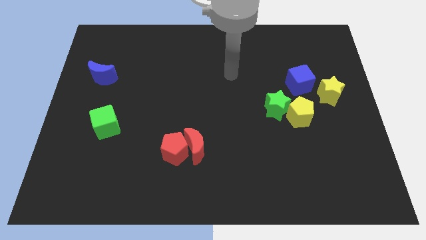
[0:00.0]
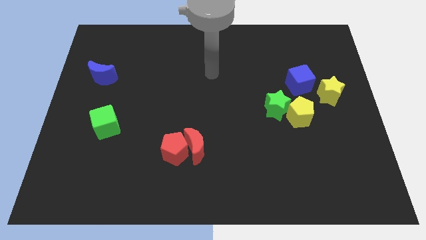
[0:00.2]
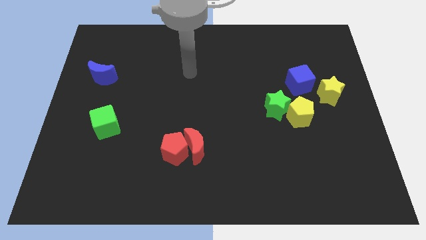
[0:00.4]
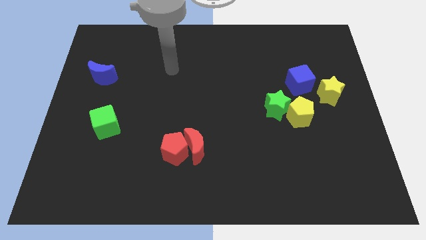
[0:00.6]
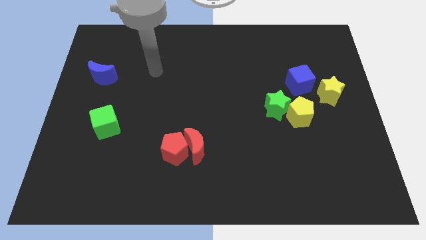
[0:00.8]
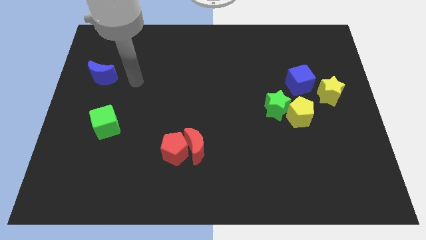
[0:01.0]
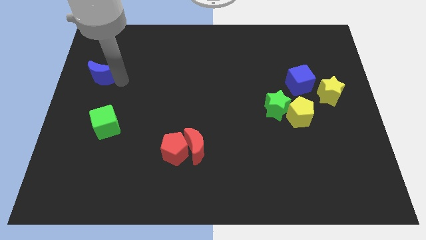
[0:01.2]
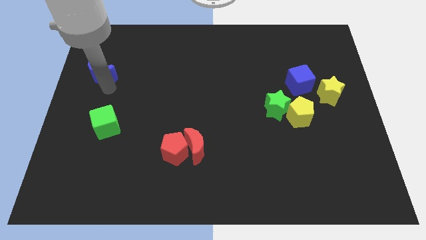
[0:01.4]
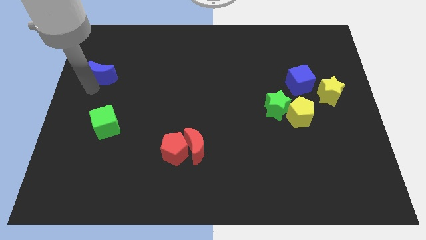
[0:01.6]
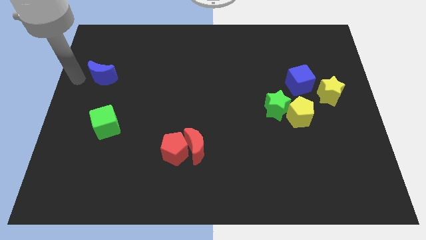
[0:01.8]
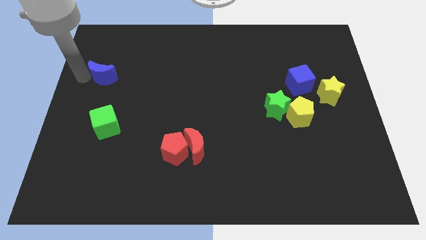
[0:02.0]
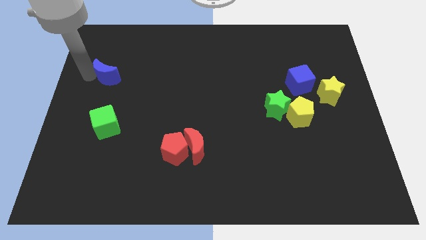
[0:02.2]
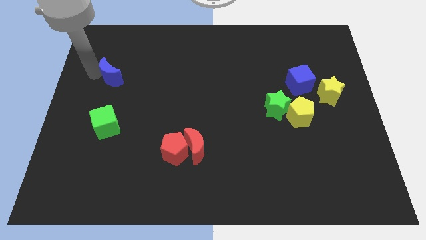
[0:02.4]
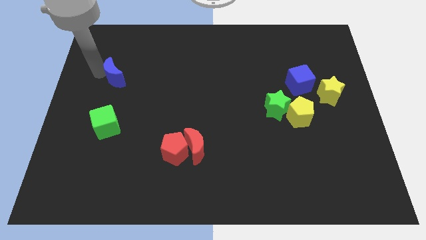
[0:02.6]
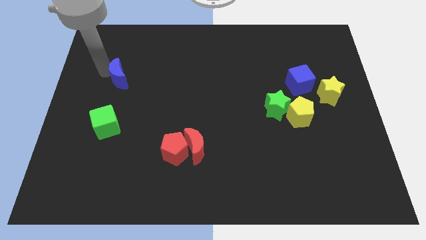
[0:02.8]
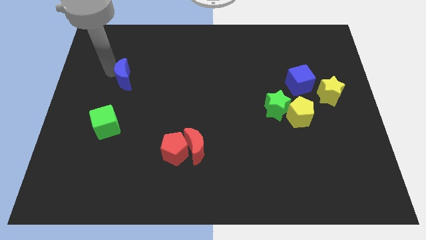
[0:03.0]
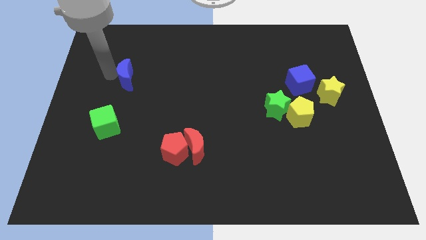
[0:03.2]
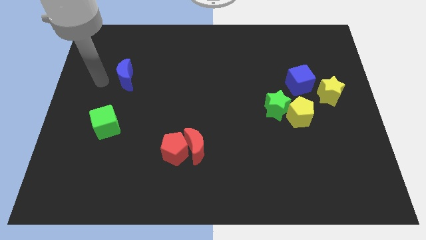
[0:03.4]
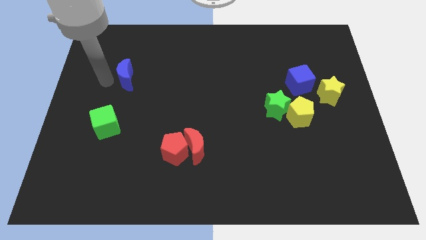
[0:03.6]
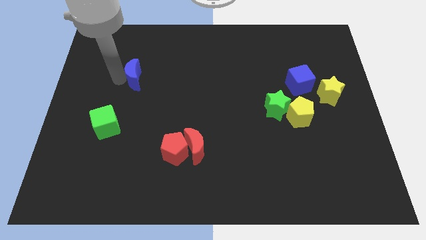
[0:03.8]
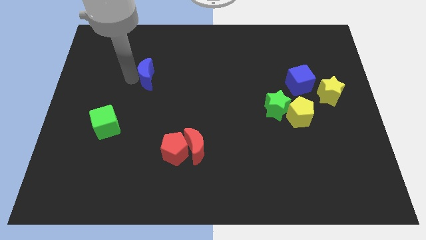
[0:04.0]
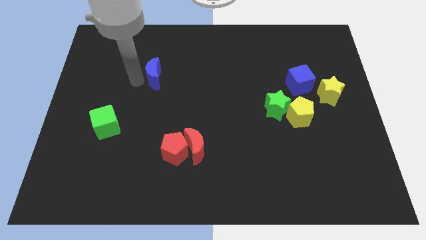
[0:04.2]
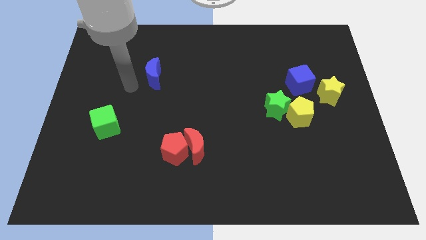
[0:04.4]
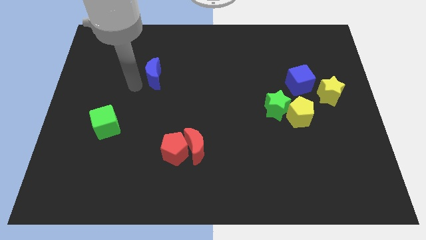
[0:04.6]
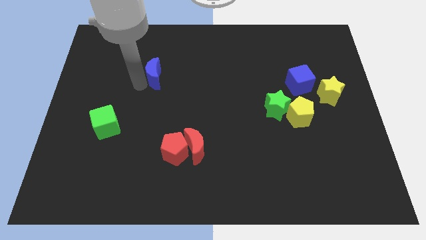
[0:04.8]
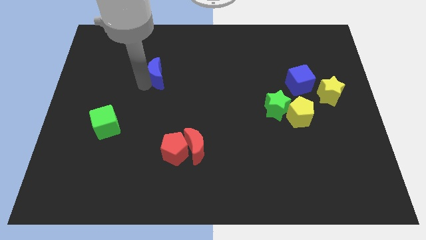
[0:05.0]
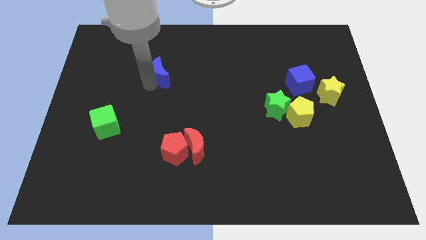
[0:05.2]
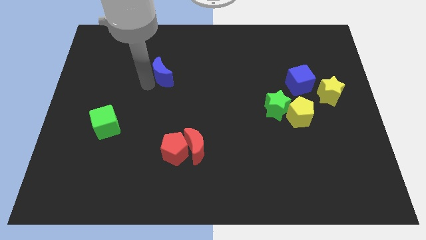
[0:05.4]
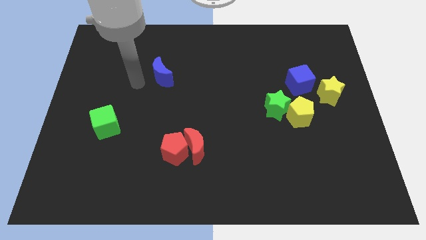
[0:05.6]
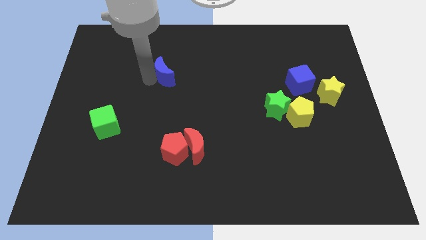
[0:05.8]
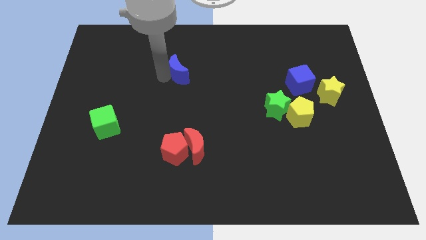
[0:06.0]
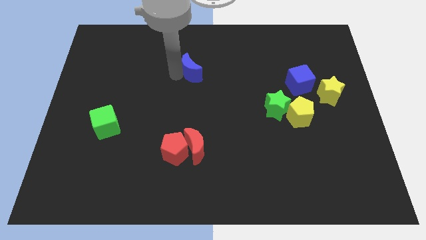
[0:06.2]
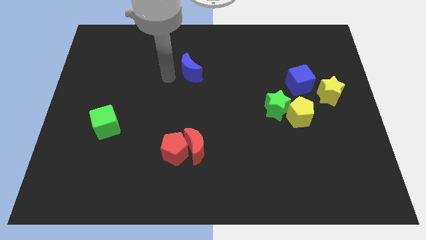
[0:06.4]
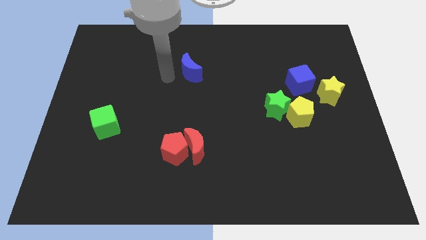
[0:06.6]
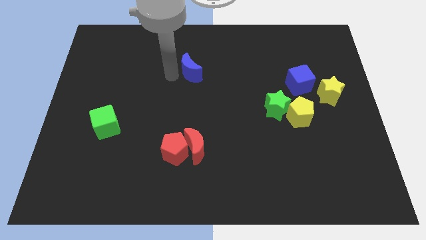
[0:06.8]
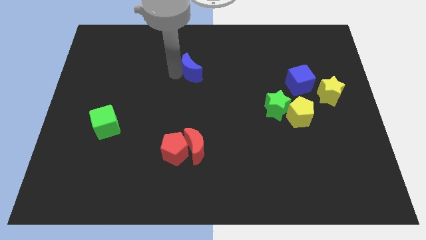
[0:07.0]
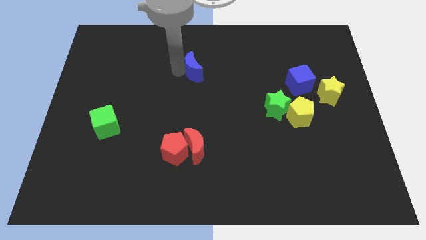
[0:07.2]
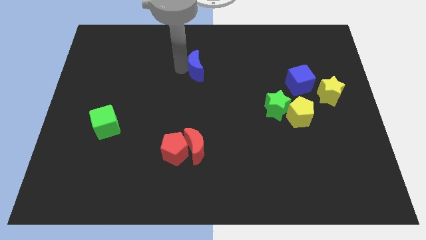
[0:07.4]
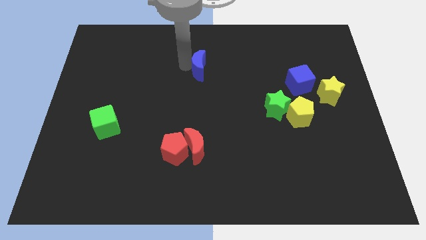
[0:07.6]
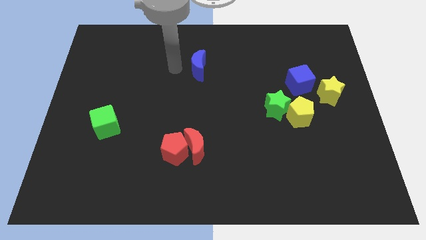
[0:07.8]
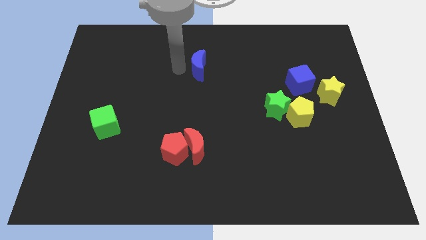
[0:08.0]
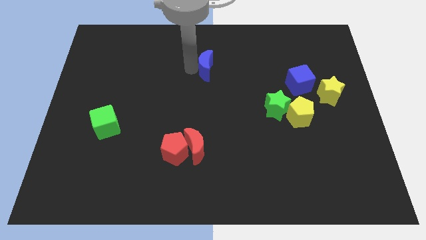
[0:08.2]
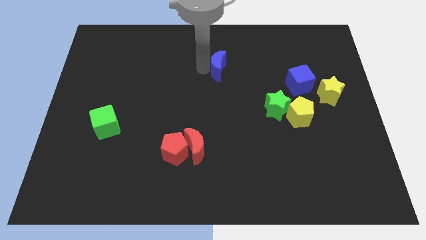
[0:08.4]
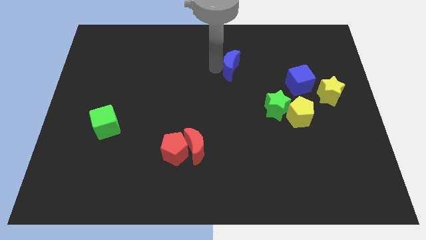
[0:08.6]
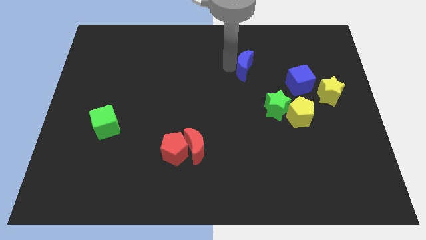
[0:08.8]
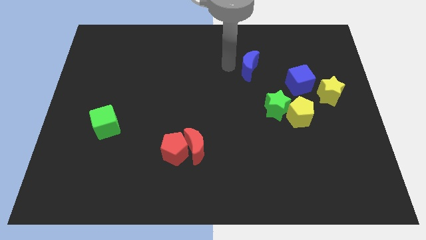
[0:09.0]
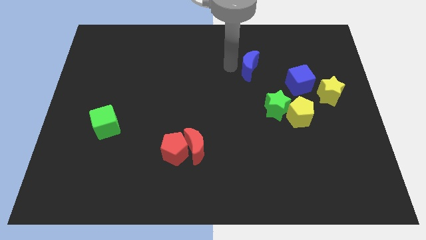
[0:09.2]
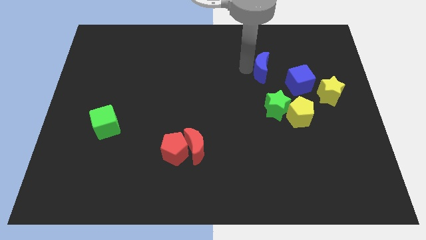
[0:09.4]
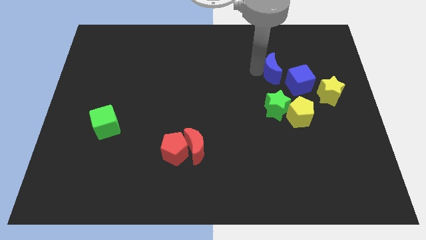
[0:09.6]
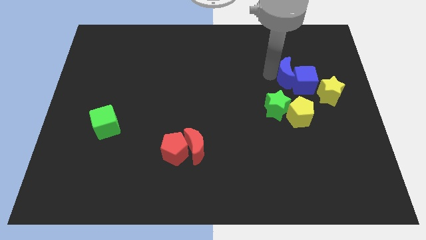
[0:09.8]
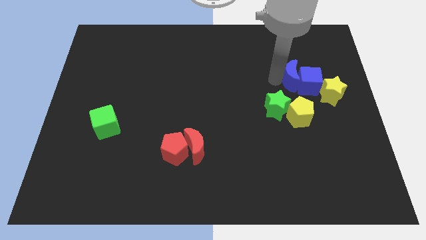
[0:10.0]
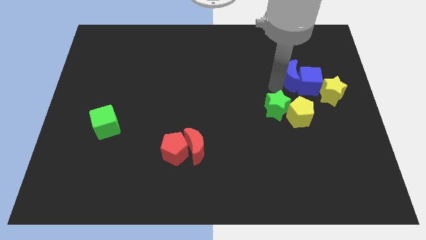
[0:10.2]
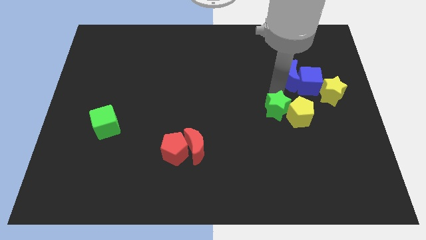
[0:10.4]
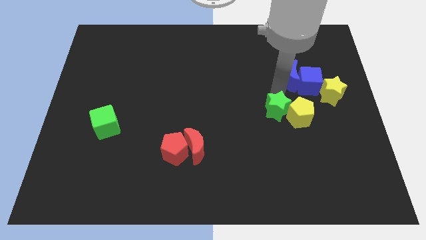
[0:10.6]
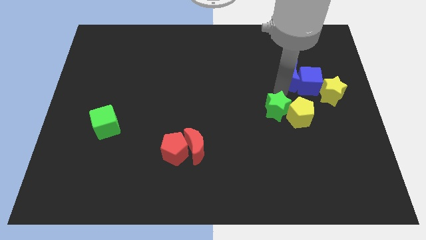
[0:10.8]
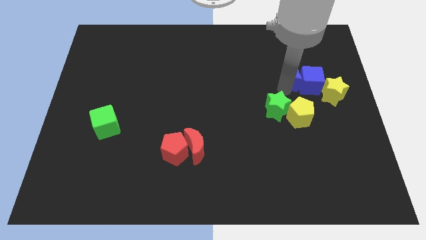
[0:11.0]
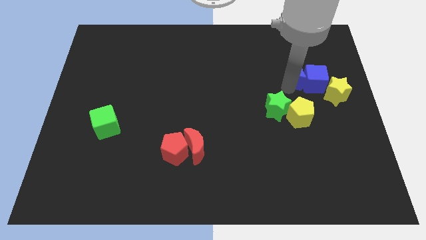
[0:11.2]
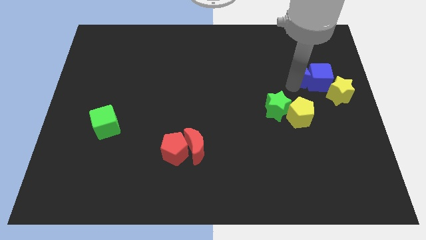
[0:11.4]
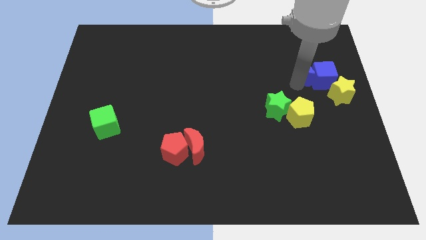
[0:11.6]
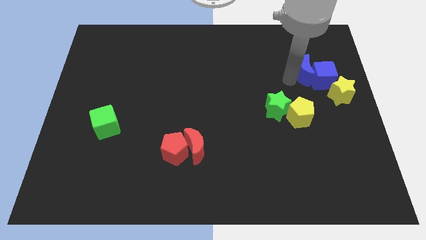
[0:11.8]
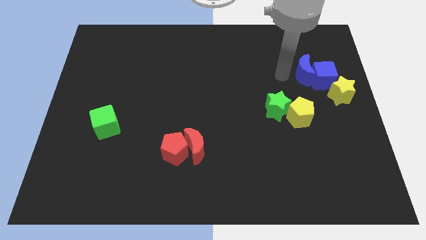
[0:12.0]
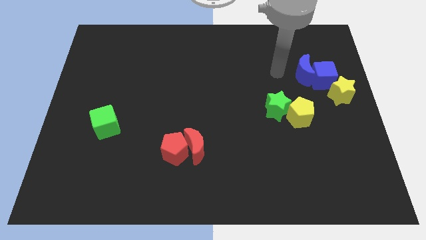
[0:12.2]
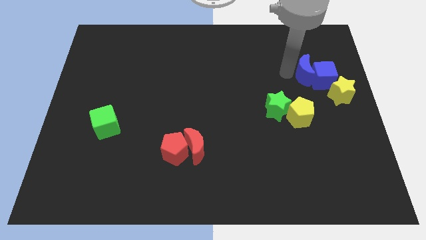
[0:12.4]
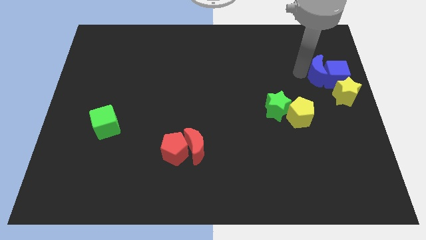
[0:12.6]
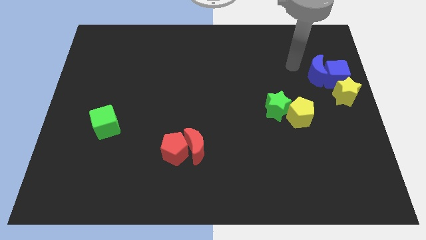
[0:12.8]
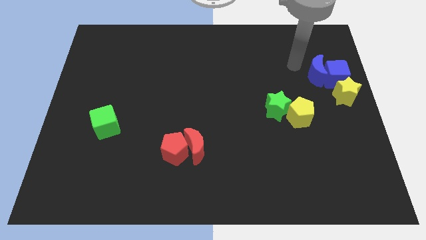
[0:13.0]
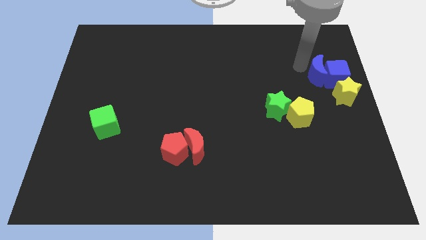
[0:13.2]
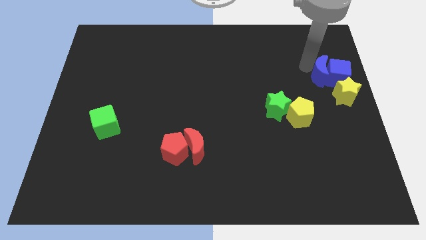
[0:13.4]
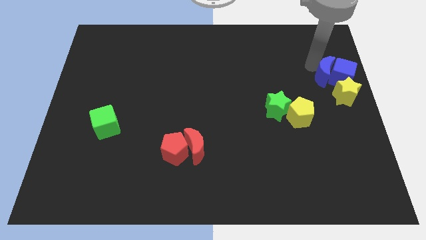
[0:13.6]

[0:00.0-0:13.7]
move the blue moon to the right side of the board
